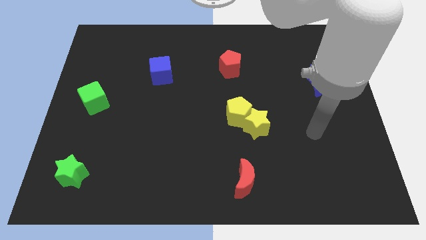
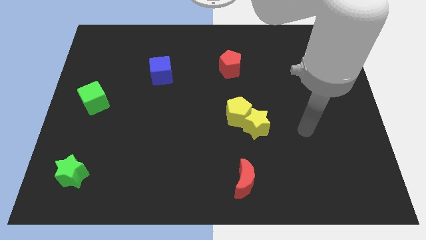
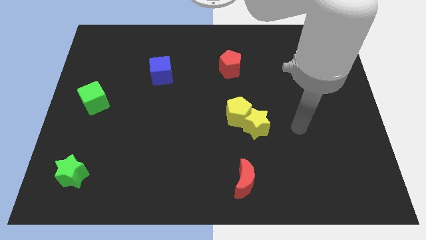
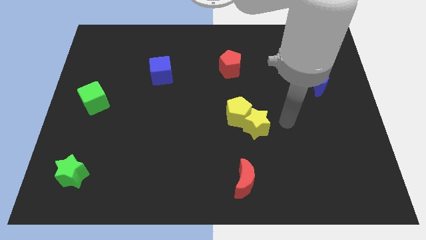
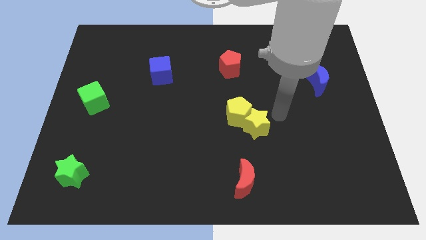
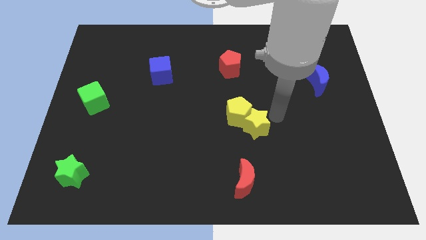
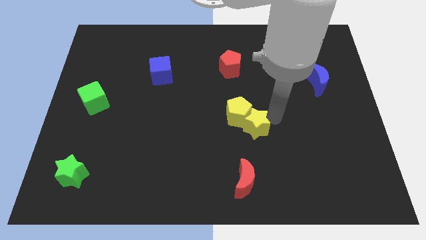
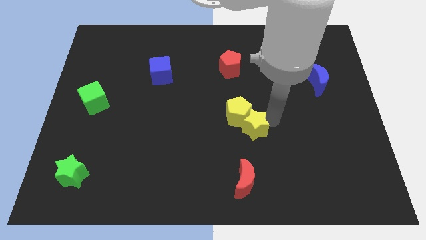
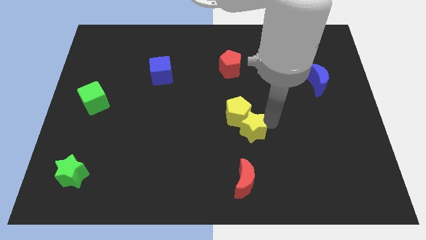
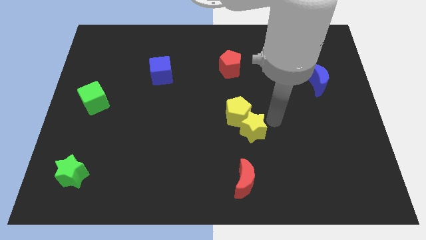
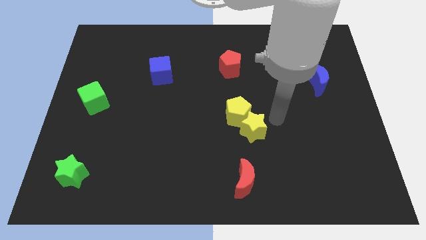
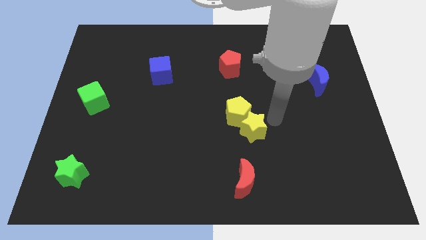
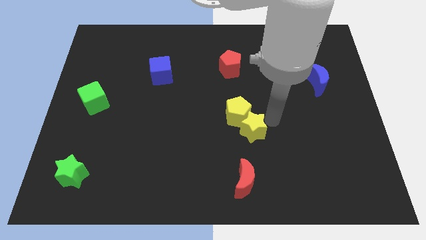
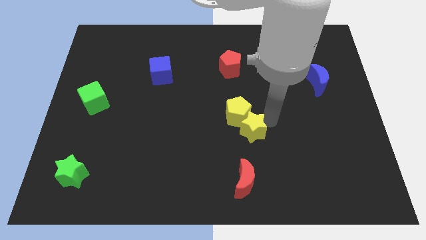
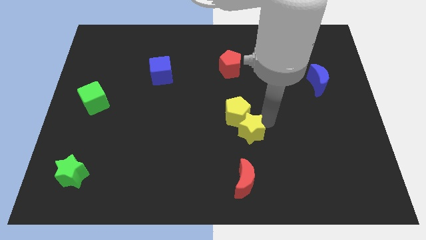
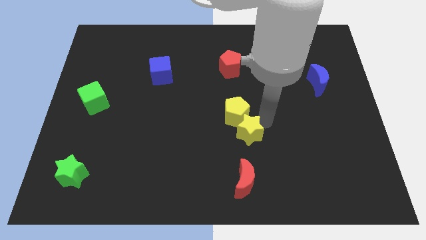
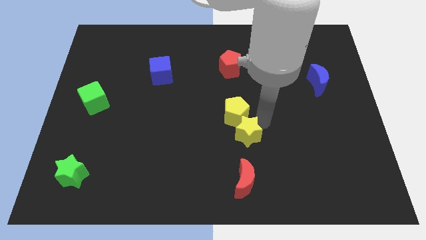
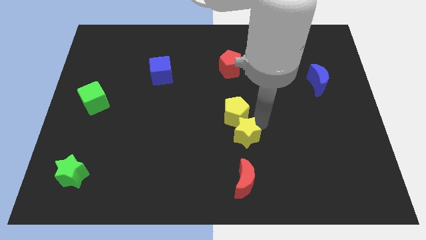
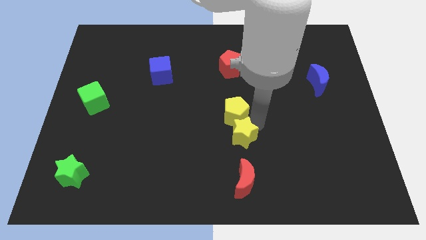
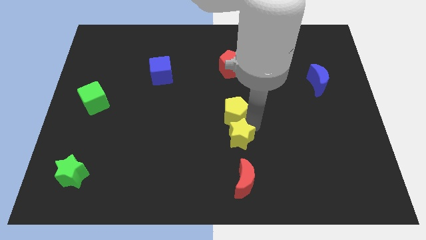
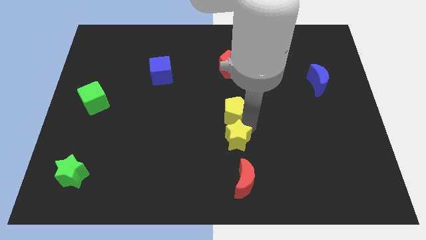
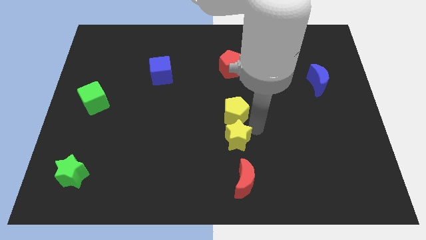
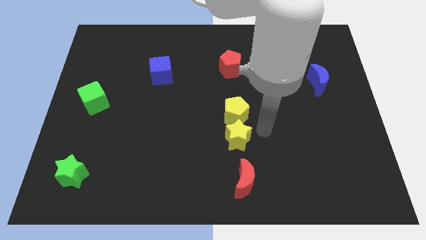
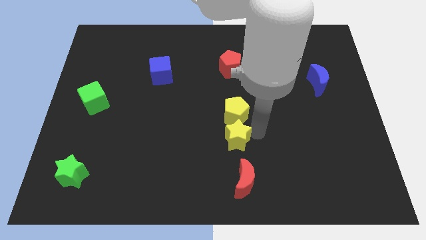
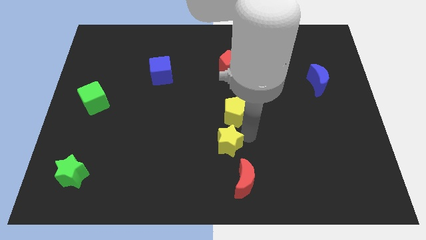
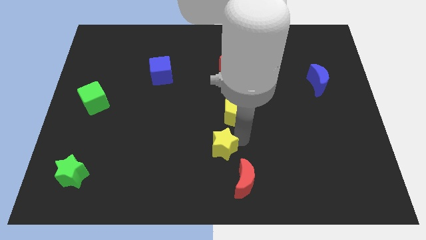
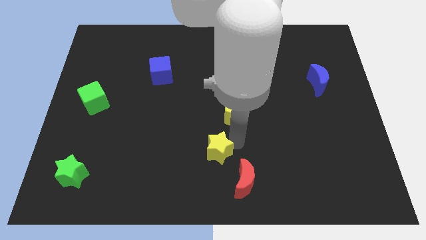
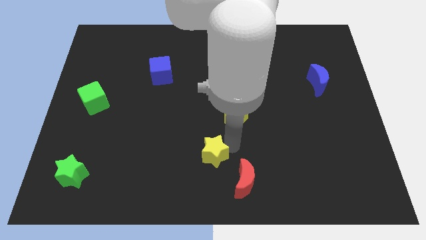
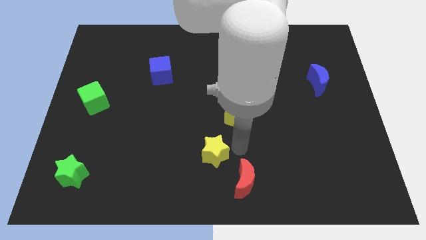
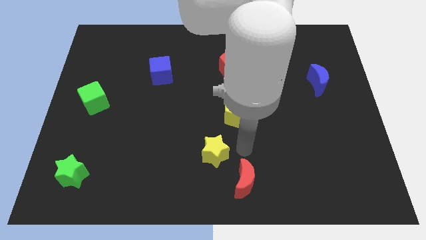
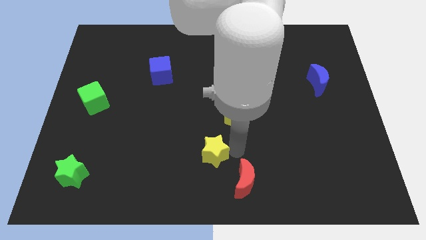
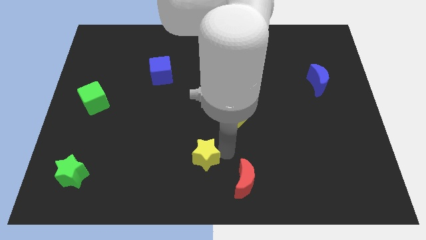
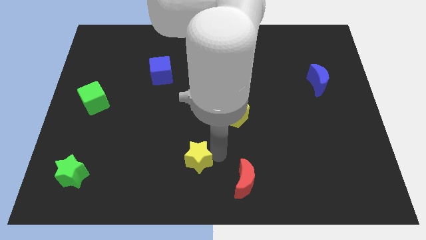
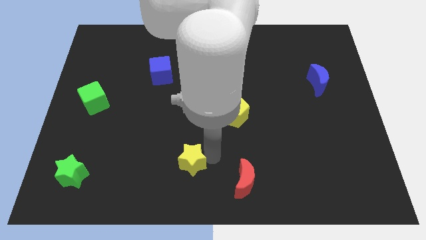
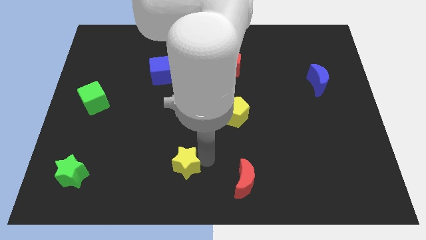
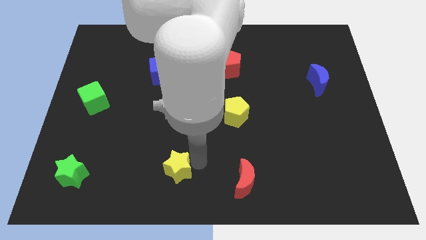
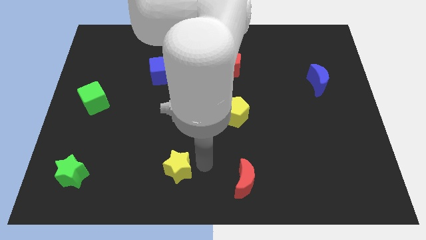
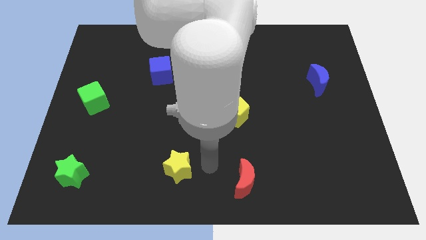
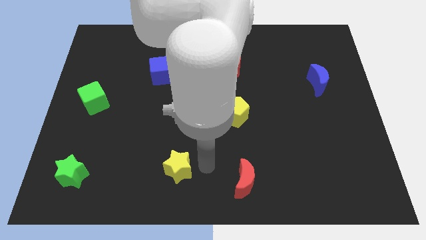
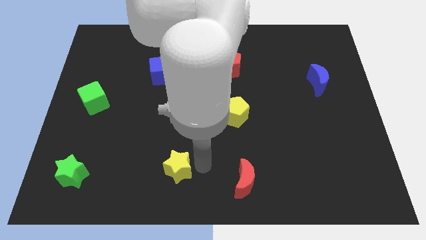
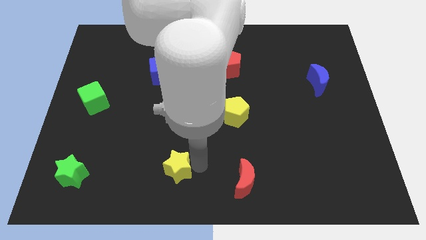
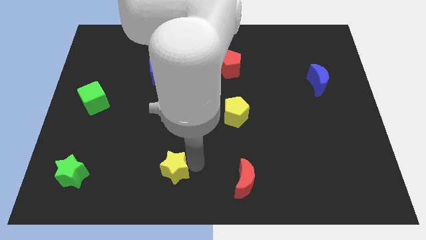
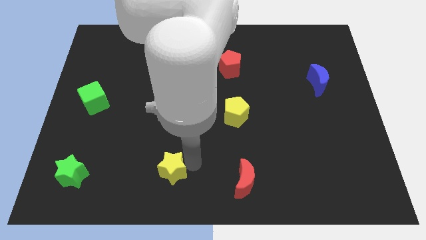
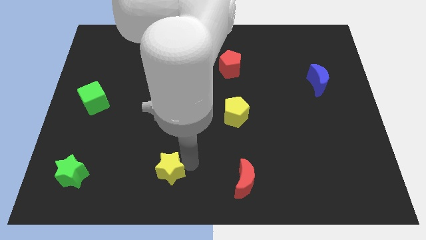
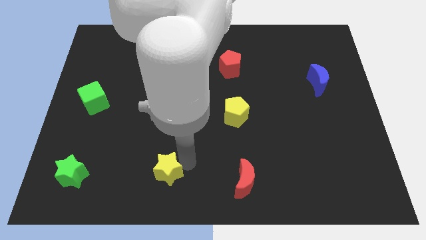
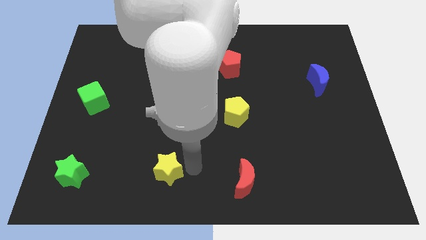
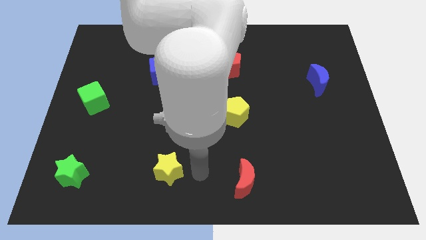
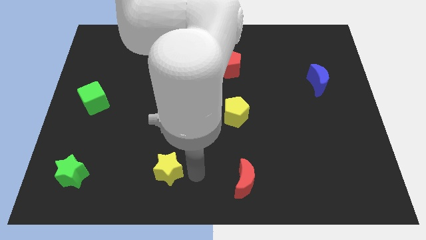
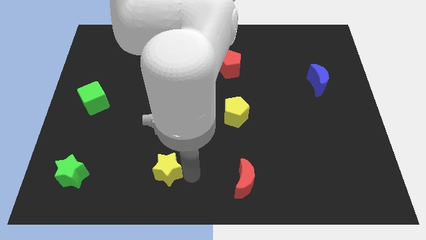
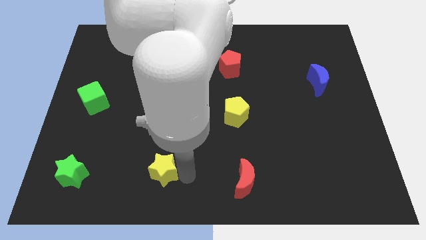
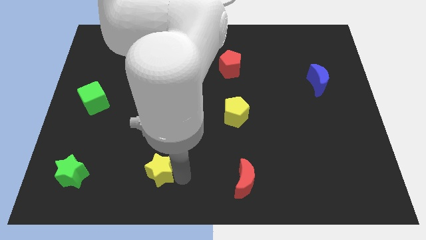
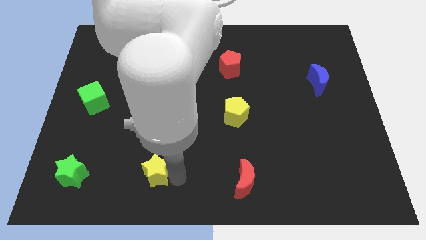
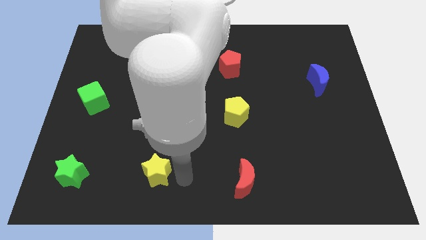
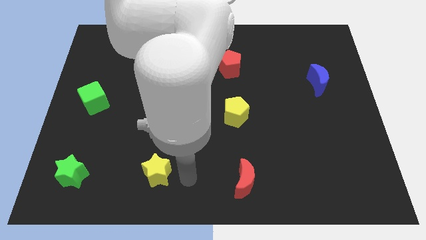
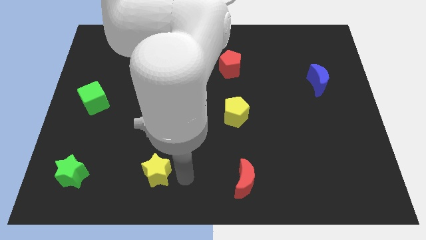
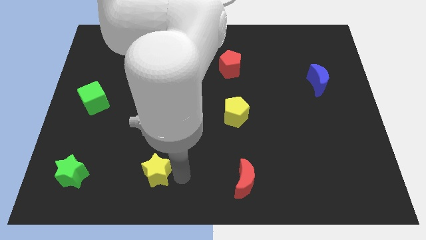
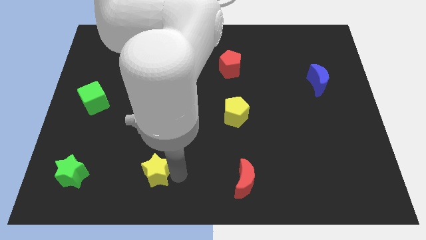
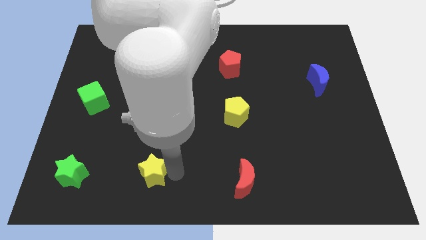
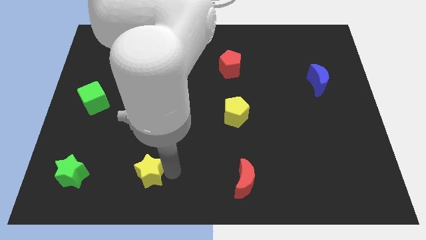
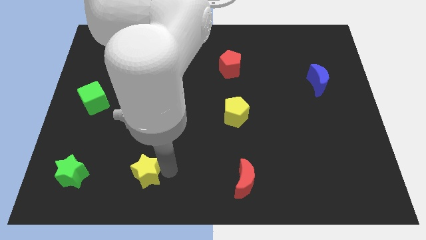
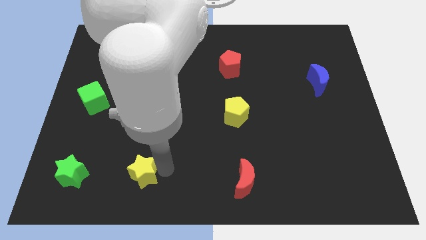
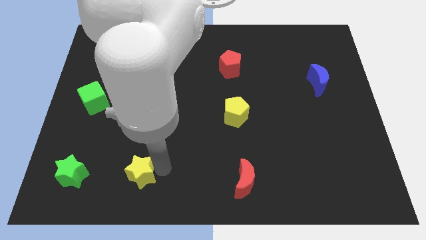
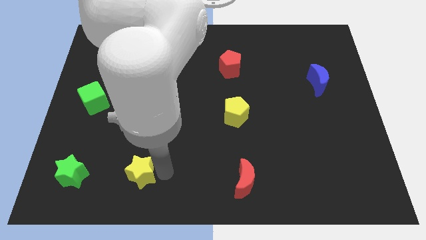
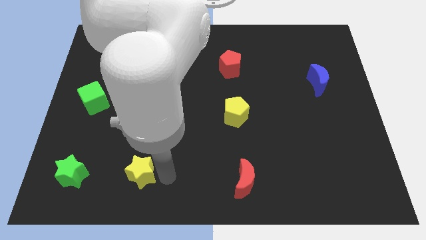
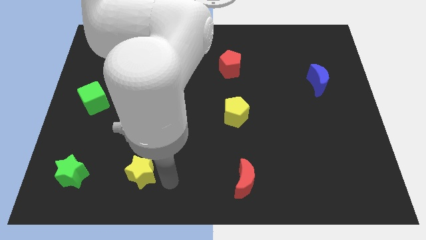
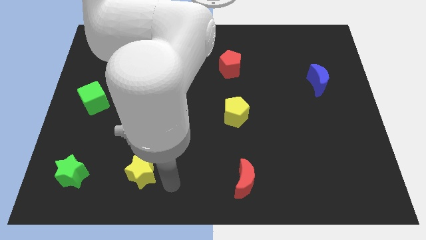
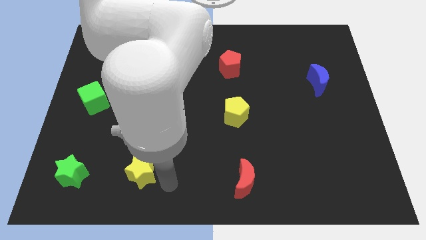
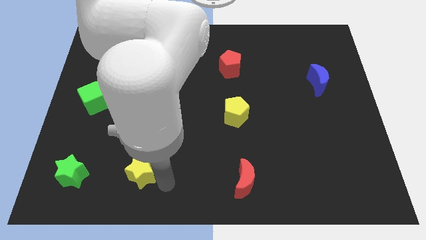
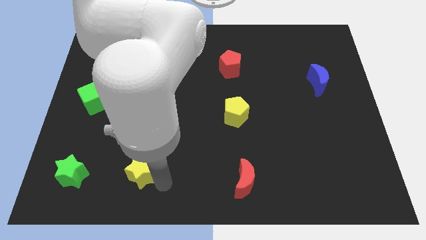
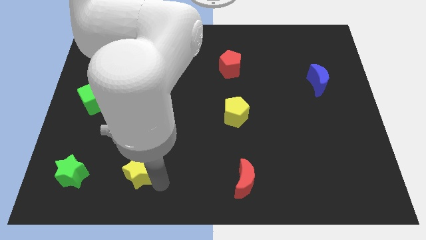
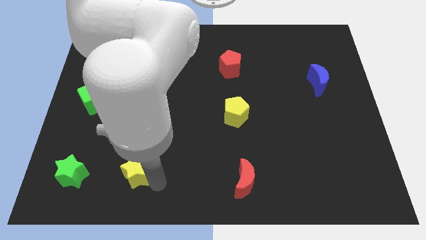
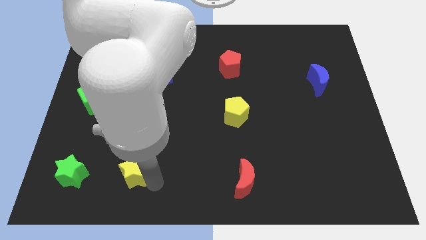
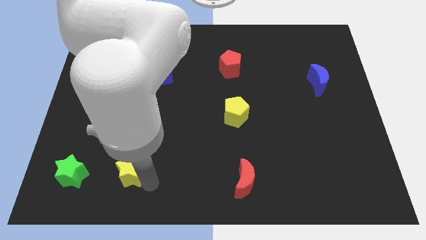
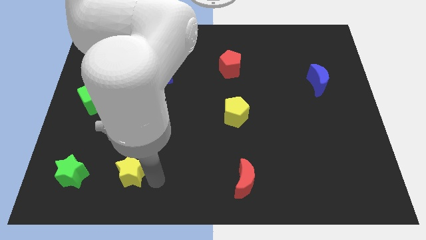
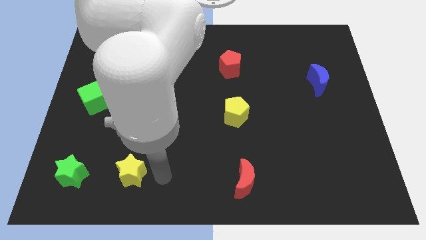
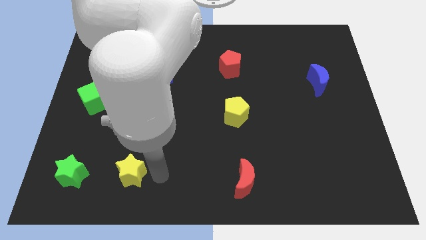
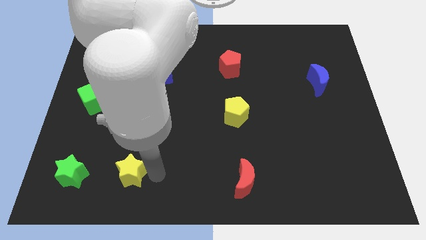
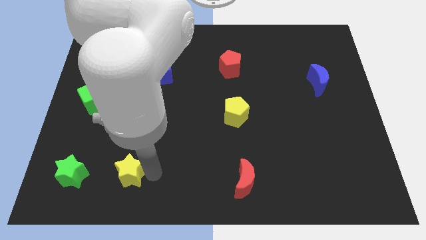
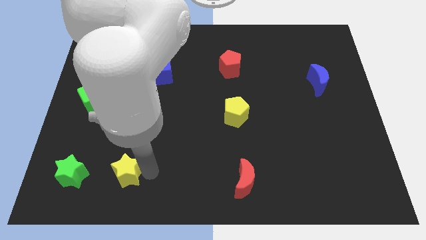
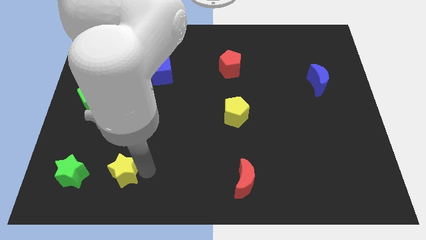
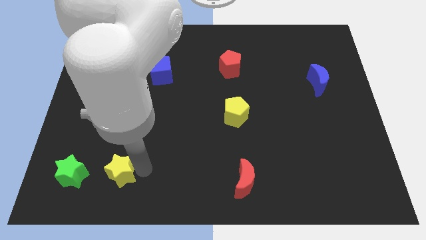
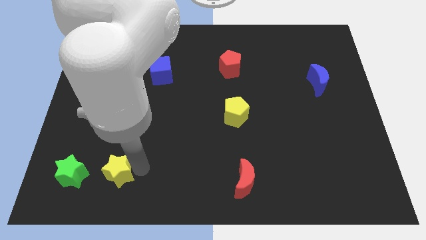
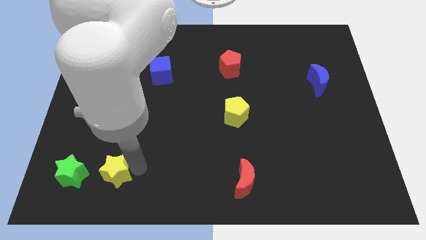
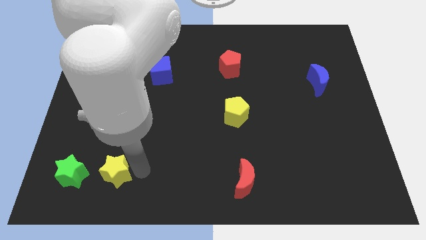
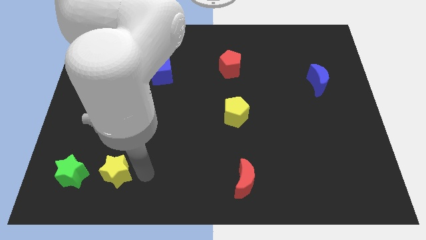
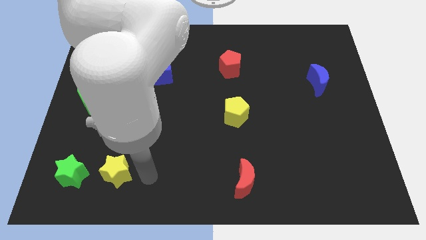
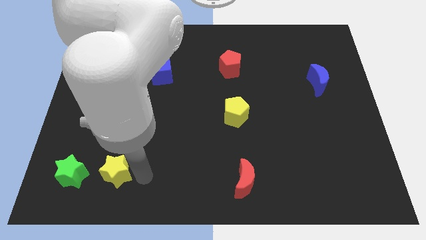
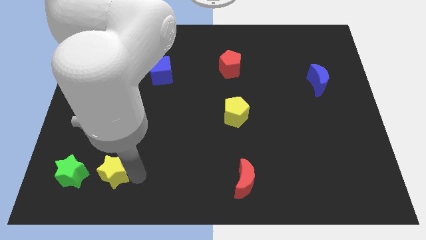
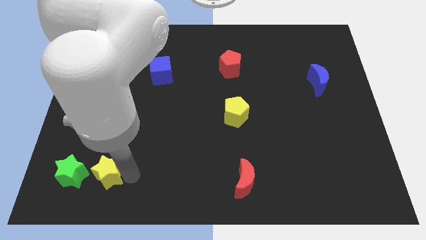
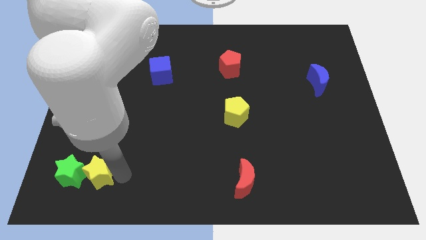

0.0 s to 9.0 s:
slide the yellow star close to the green star
